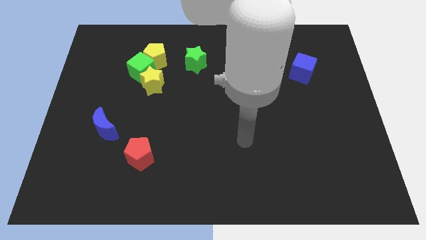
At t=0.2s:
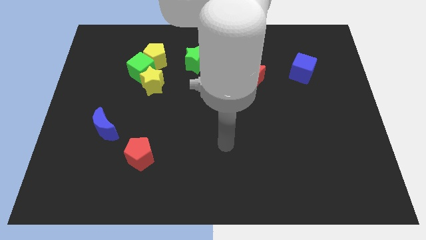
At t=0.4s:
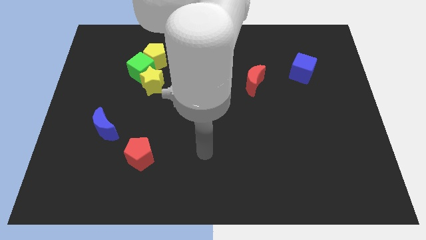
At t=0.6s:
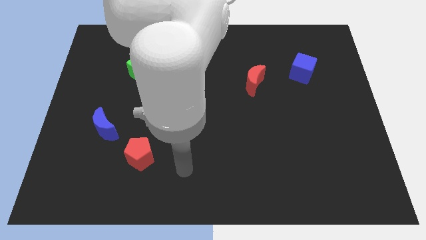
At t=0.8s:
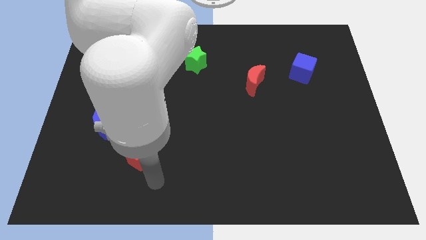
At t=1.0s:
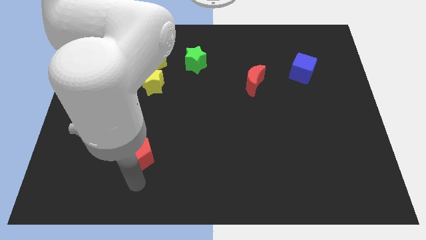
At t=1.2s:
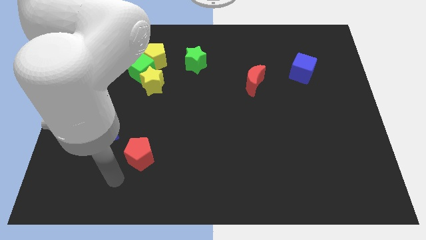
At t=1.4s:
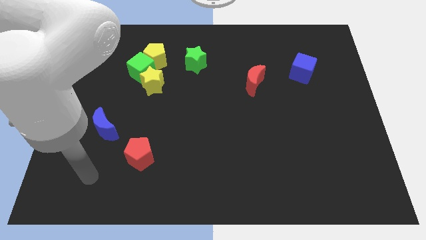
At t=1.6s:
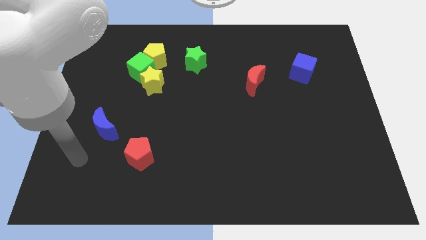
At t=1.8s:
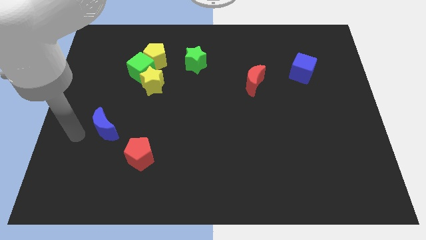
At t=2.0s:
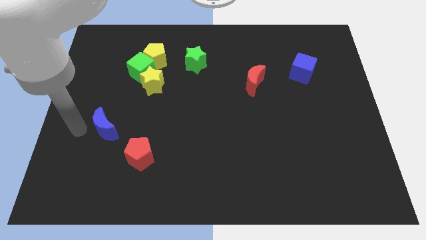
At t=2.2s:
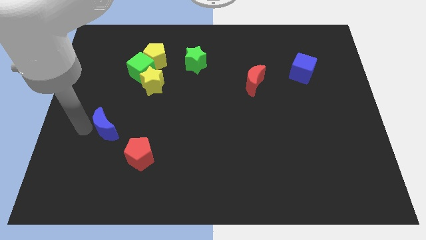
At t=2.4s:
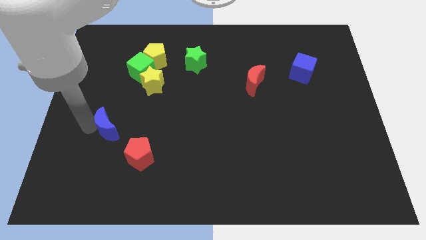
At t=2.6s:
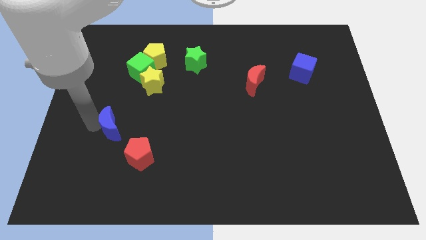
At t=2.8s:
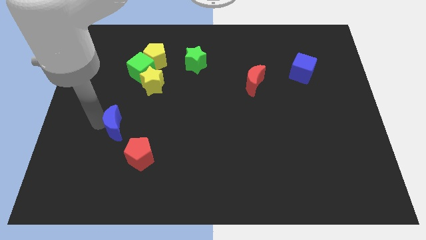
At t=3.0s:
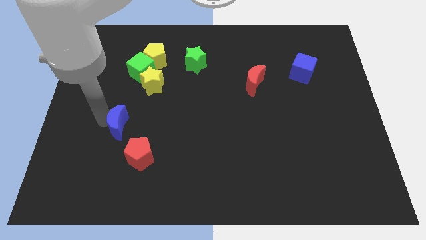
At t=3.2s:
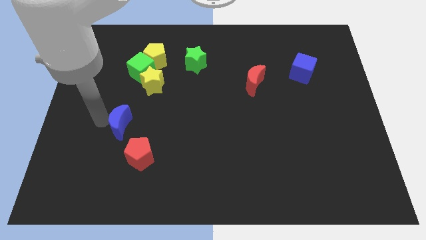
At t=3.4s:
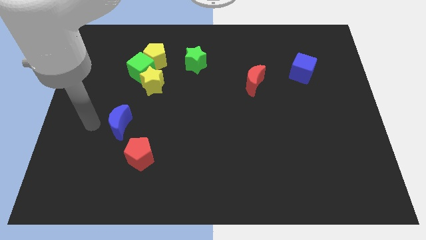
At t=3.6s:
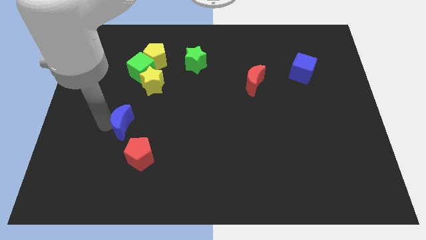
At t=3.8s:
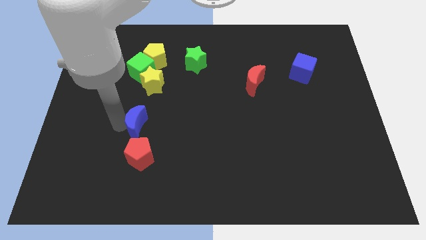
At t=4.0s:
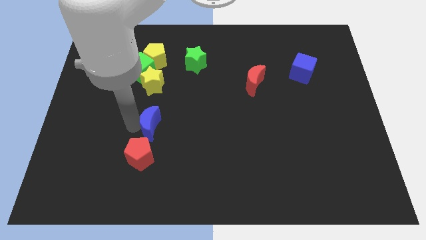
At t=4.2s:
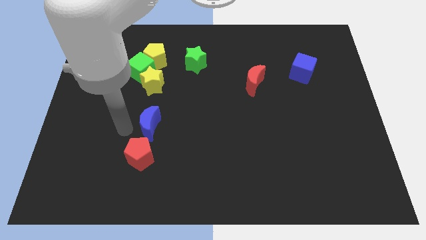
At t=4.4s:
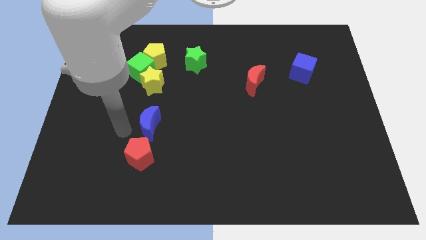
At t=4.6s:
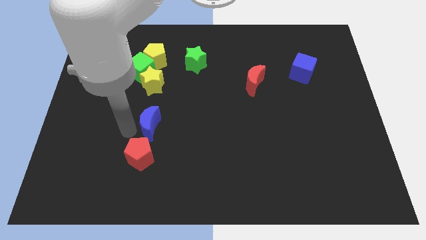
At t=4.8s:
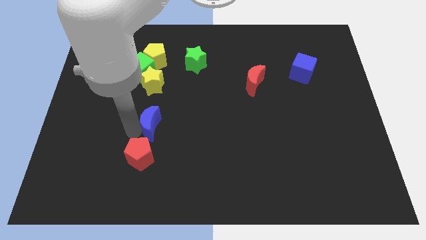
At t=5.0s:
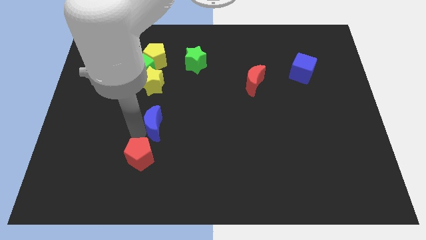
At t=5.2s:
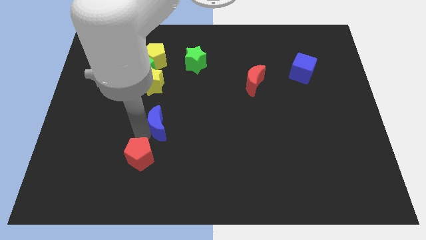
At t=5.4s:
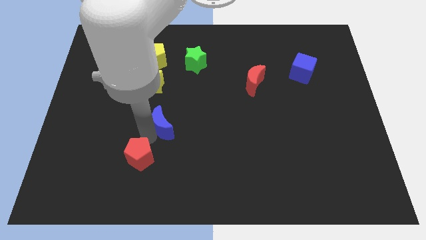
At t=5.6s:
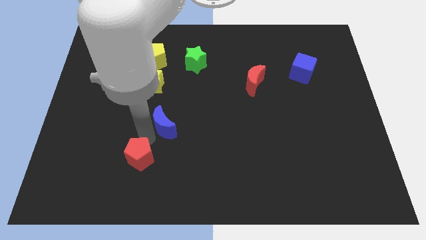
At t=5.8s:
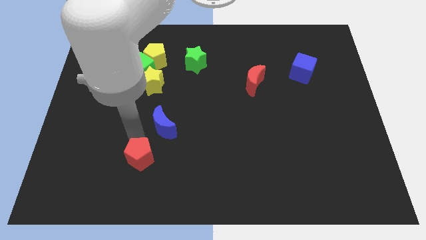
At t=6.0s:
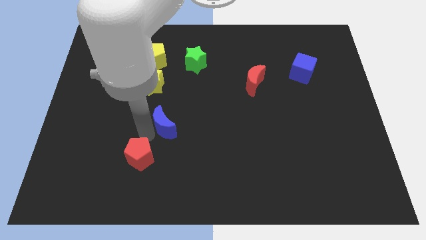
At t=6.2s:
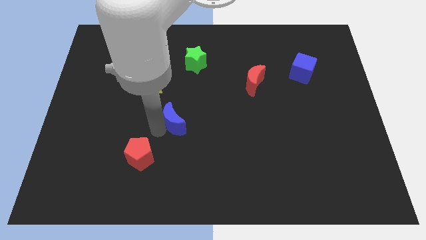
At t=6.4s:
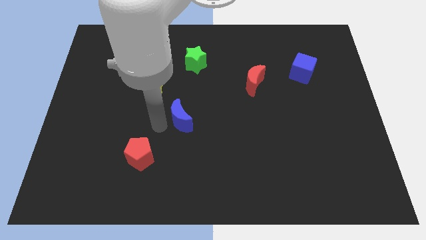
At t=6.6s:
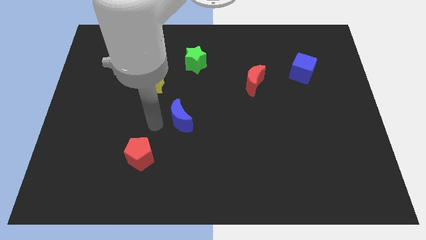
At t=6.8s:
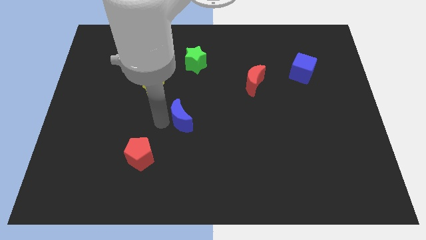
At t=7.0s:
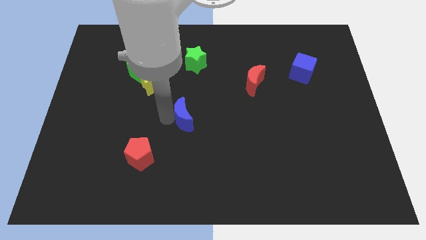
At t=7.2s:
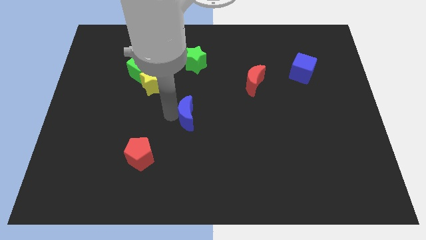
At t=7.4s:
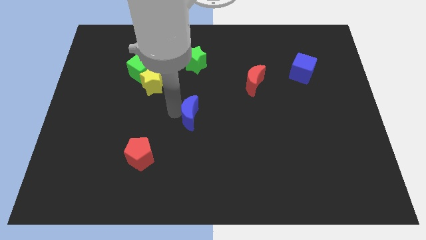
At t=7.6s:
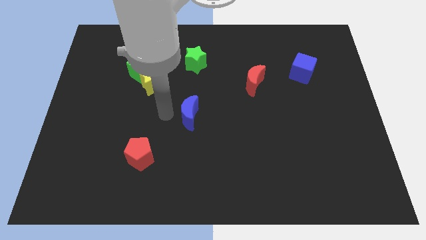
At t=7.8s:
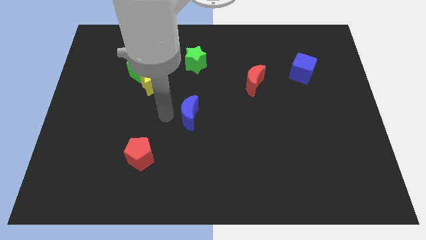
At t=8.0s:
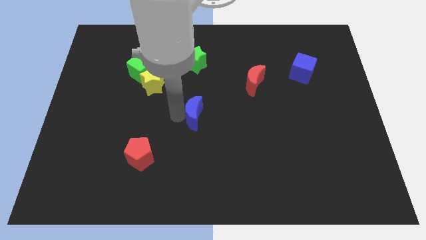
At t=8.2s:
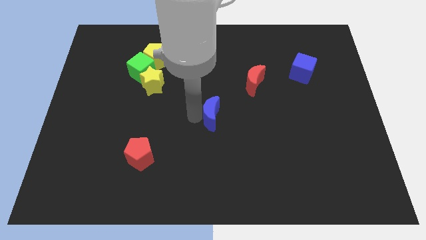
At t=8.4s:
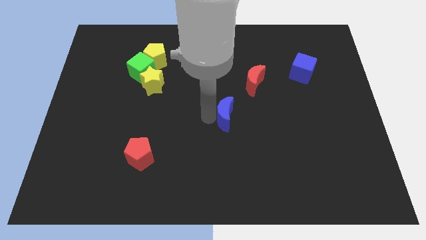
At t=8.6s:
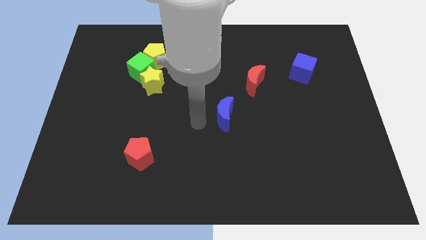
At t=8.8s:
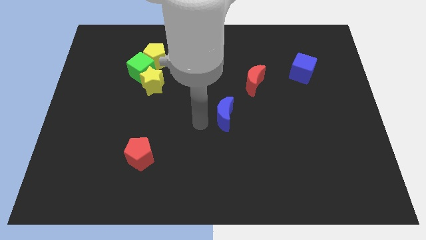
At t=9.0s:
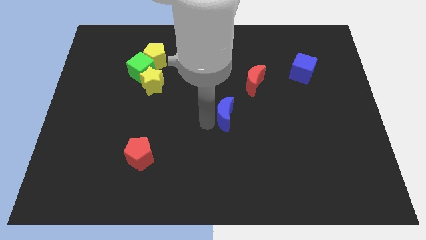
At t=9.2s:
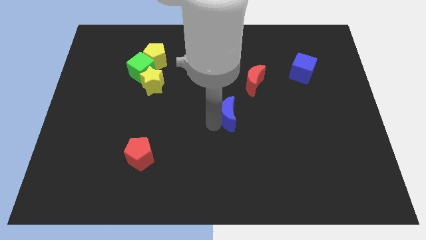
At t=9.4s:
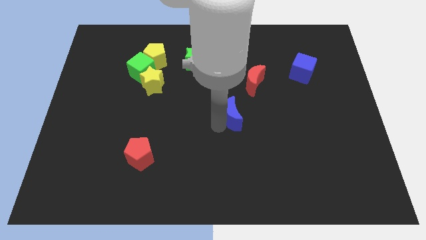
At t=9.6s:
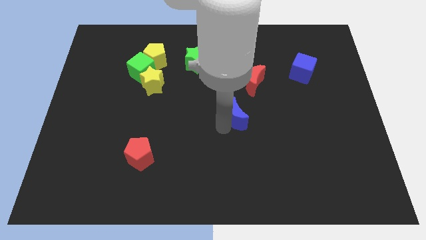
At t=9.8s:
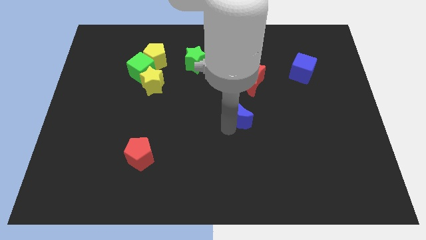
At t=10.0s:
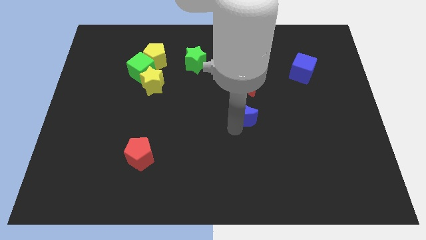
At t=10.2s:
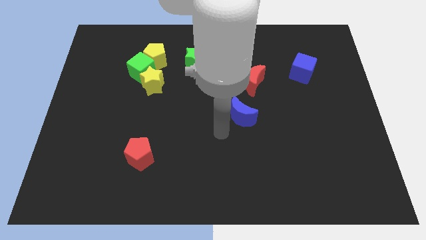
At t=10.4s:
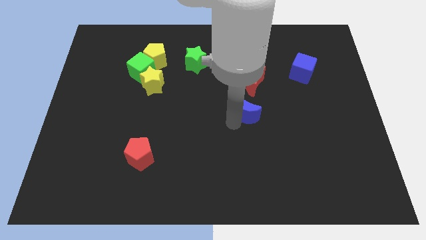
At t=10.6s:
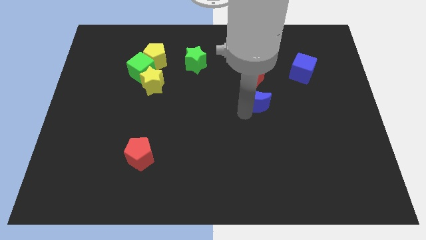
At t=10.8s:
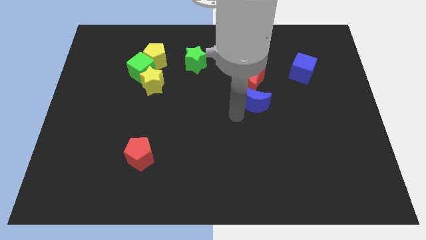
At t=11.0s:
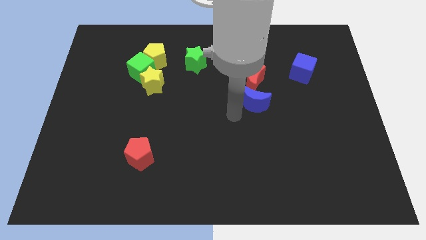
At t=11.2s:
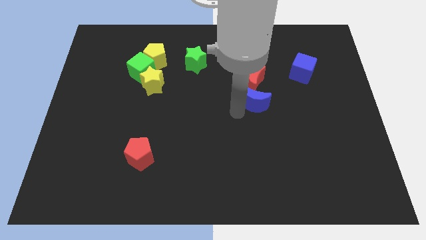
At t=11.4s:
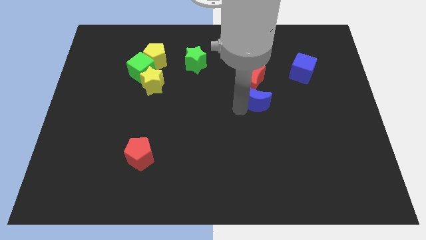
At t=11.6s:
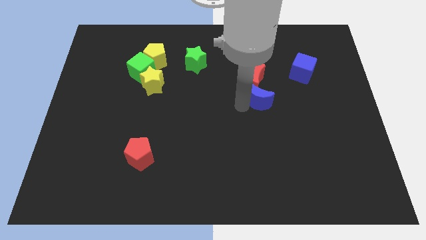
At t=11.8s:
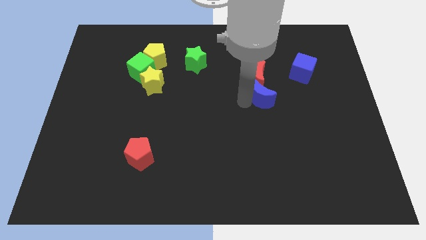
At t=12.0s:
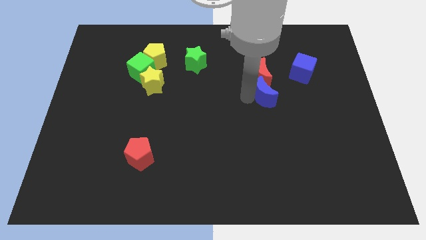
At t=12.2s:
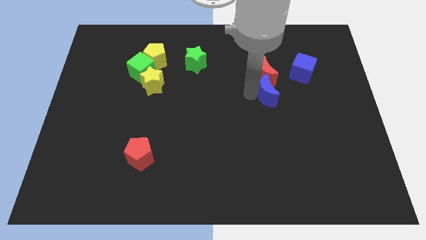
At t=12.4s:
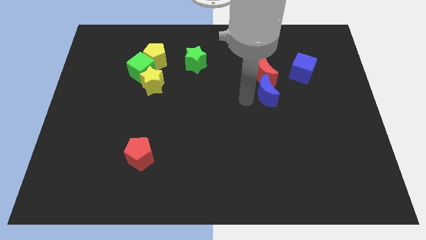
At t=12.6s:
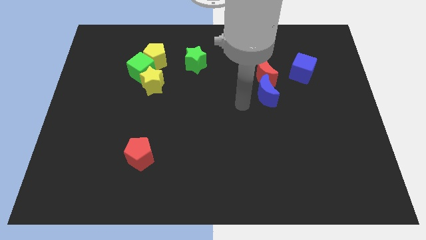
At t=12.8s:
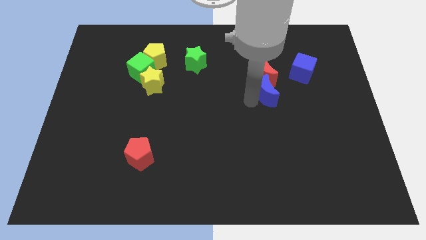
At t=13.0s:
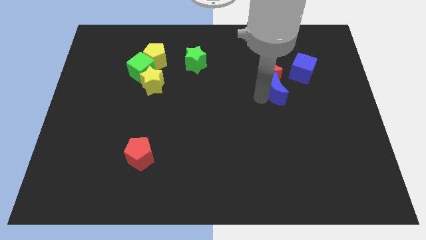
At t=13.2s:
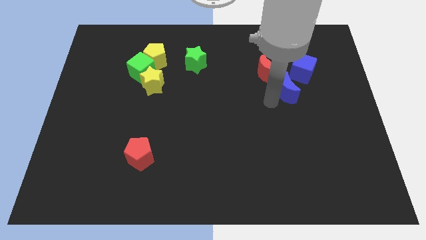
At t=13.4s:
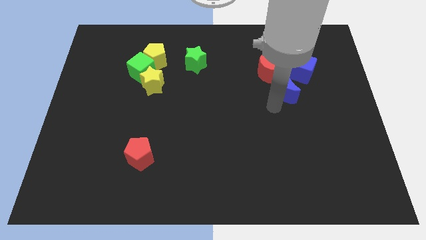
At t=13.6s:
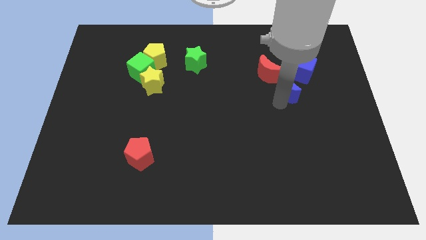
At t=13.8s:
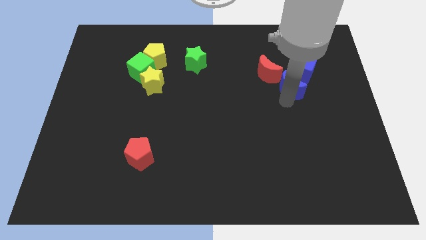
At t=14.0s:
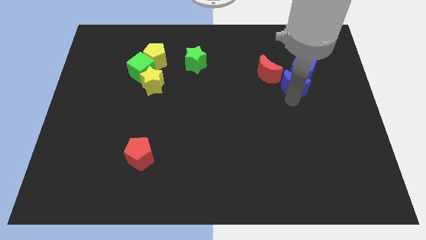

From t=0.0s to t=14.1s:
slide the blue moon next to the blue cube
